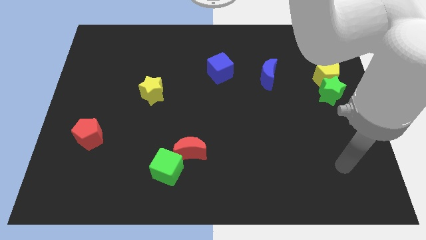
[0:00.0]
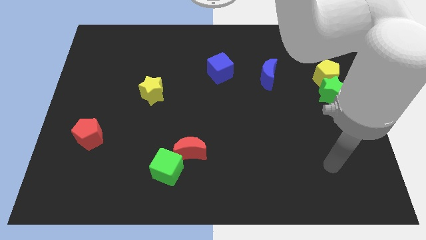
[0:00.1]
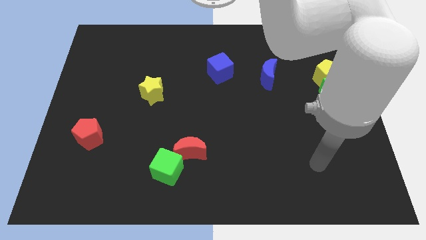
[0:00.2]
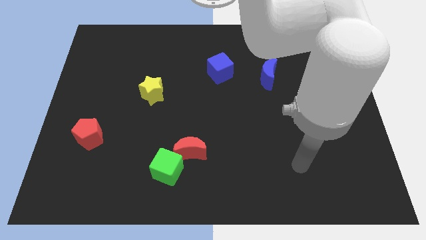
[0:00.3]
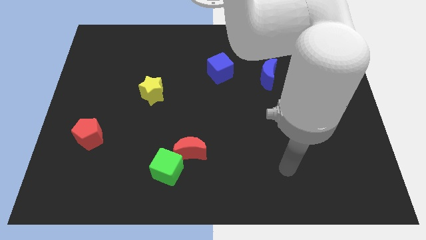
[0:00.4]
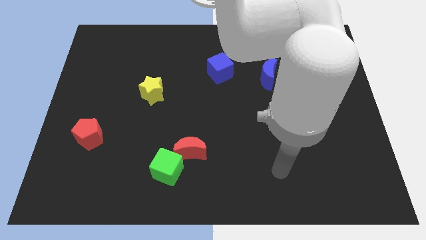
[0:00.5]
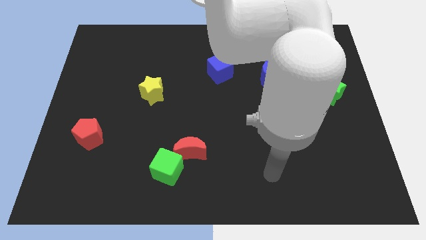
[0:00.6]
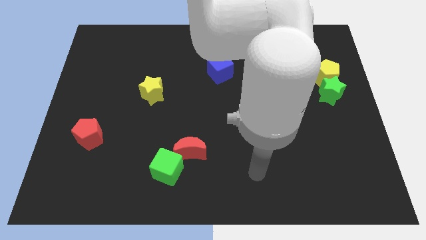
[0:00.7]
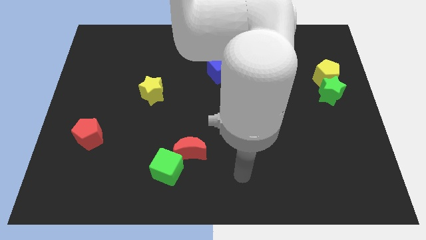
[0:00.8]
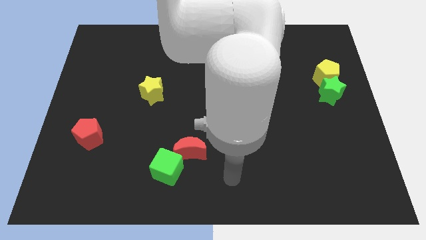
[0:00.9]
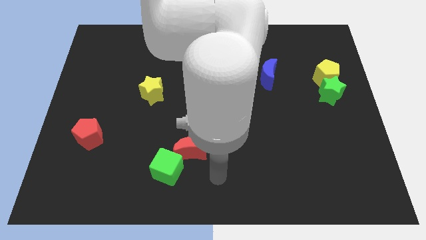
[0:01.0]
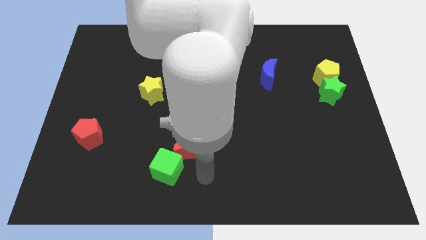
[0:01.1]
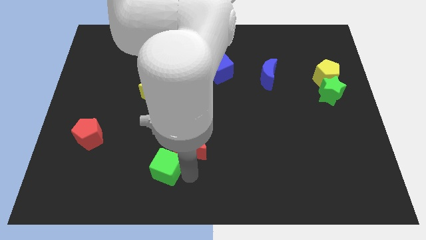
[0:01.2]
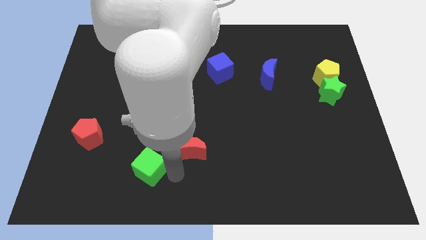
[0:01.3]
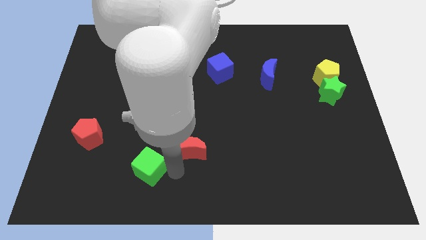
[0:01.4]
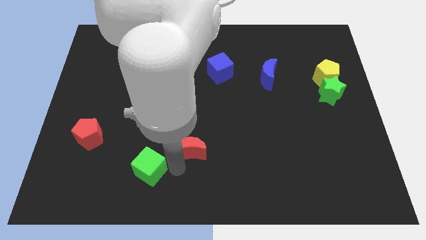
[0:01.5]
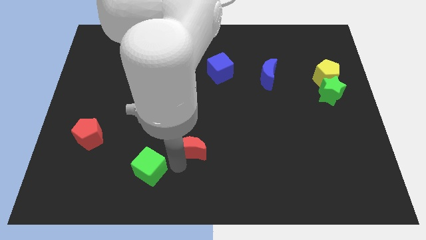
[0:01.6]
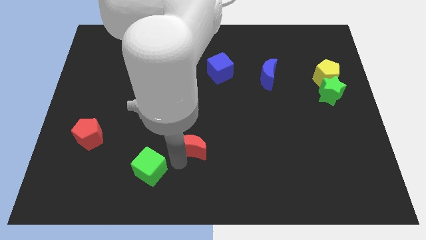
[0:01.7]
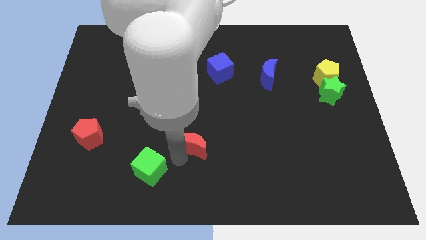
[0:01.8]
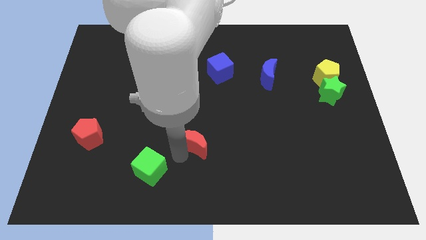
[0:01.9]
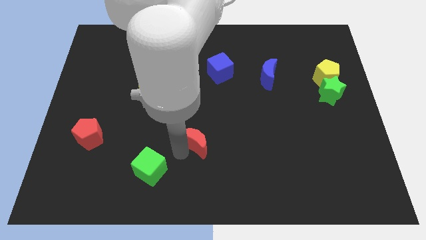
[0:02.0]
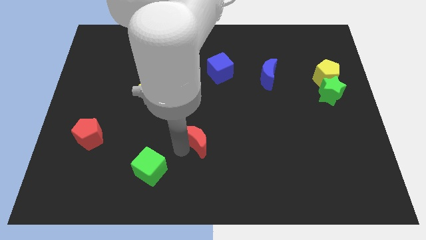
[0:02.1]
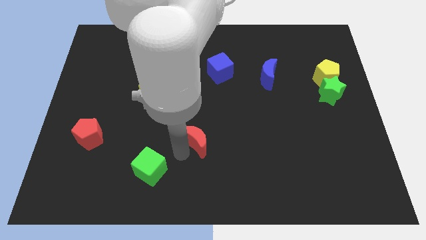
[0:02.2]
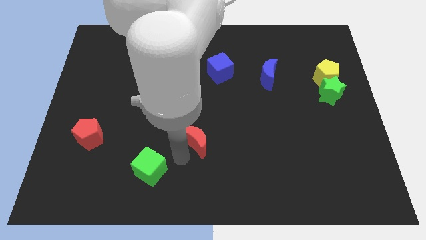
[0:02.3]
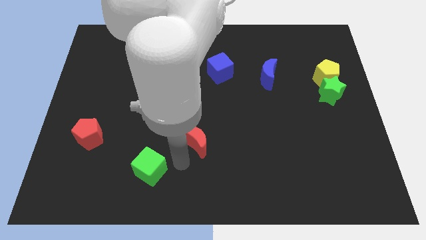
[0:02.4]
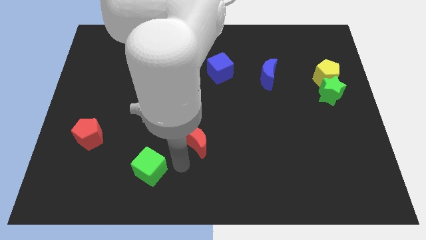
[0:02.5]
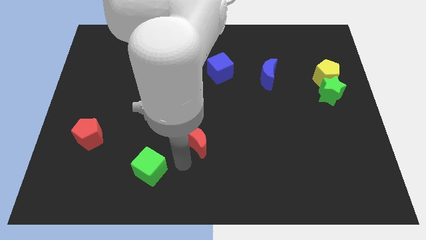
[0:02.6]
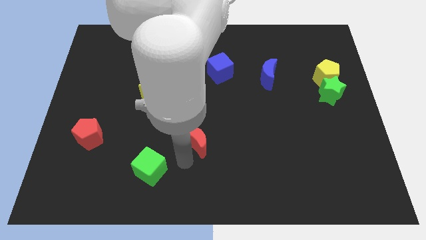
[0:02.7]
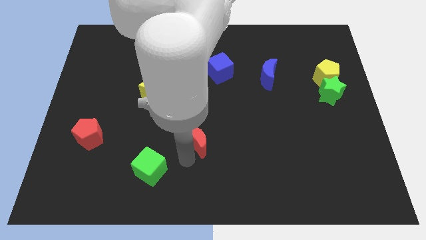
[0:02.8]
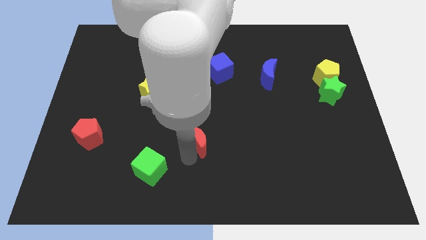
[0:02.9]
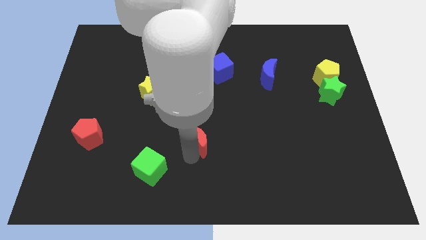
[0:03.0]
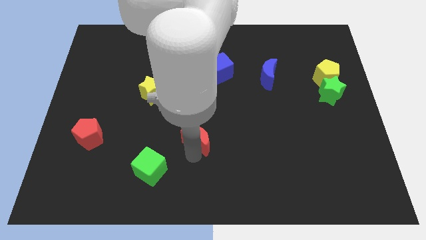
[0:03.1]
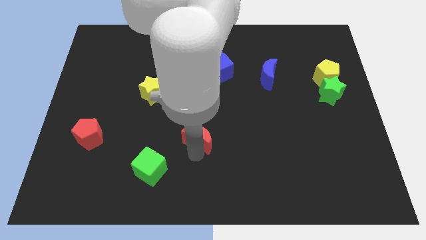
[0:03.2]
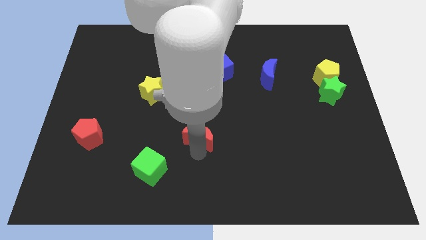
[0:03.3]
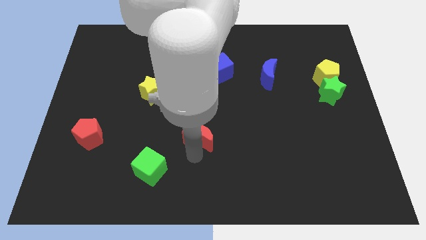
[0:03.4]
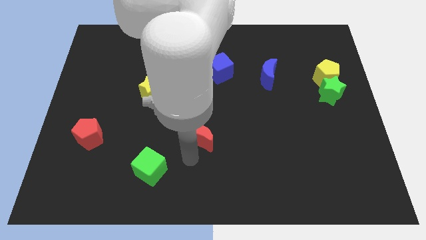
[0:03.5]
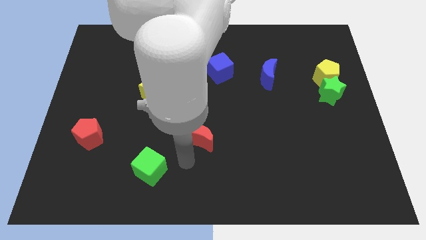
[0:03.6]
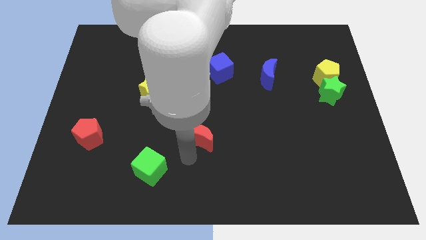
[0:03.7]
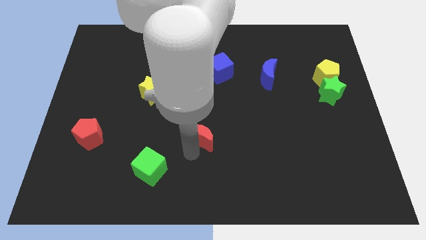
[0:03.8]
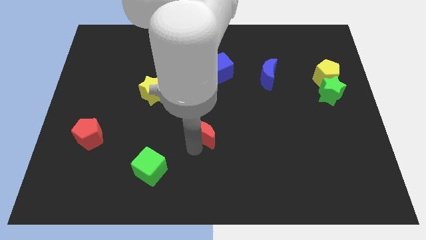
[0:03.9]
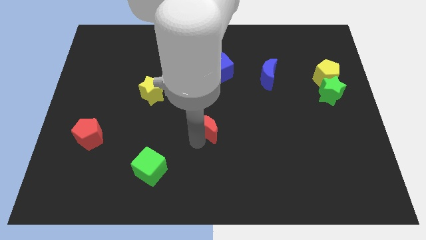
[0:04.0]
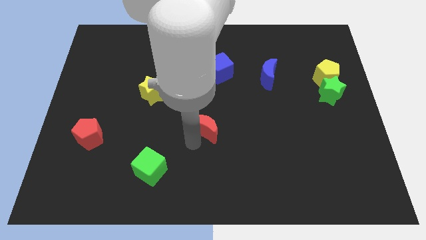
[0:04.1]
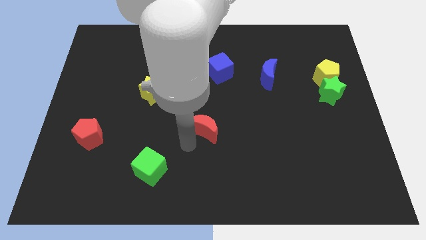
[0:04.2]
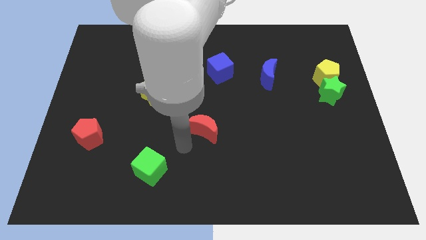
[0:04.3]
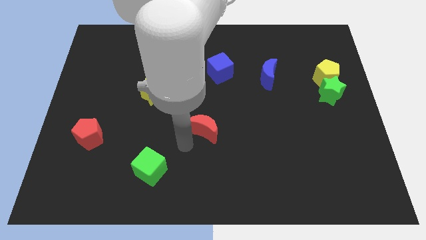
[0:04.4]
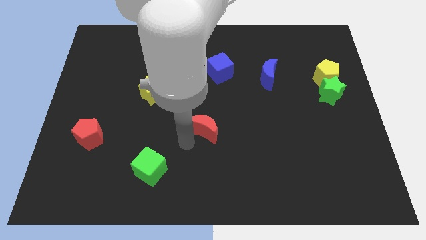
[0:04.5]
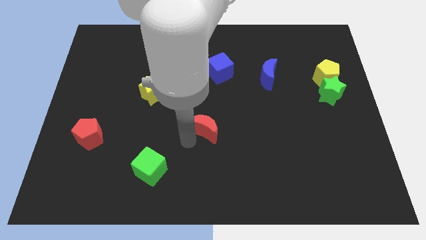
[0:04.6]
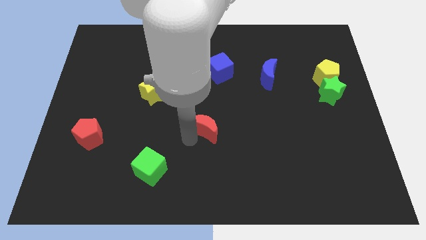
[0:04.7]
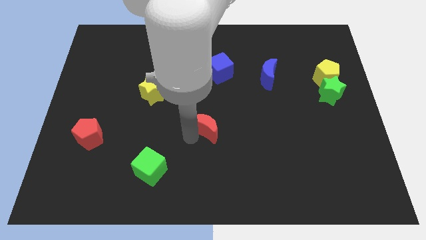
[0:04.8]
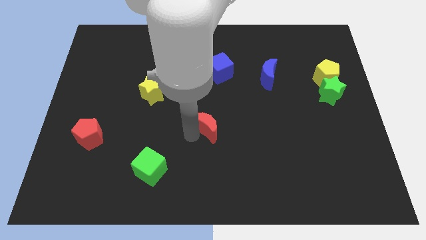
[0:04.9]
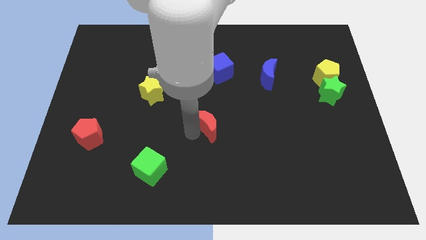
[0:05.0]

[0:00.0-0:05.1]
move the red moon up and right slightly

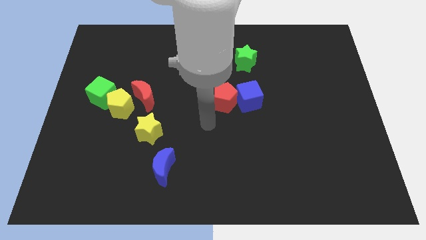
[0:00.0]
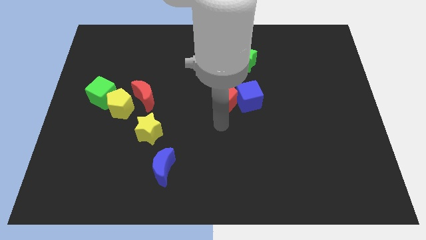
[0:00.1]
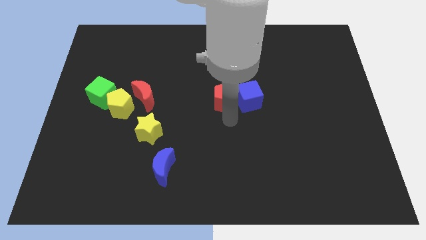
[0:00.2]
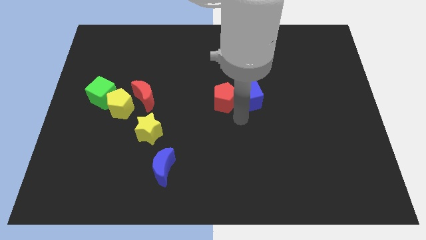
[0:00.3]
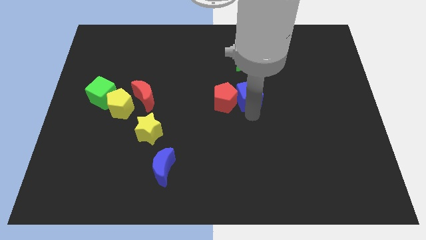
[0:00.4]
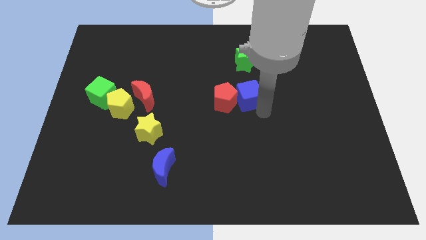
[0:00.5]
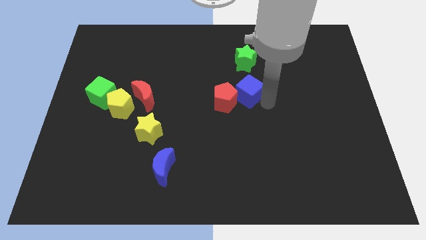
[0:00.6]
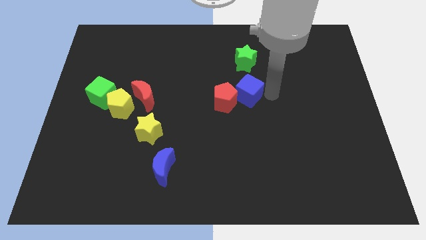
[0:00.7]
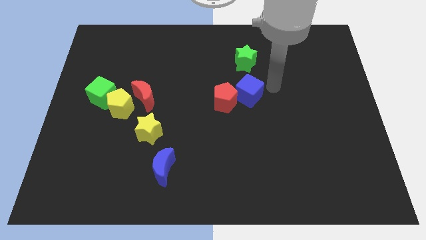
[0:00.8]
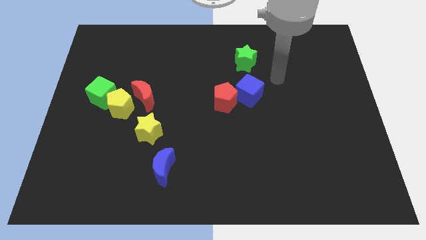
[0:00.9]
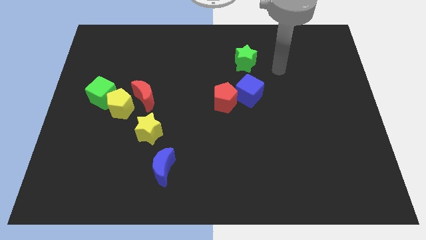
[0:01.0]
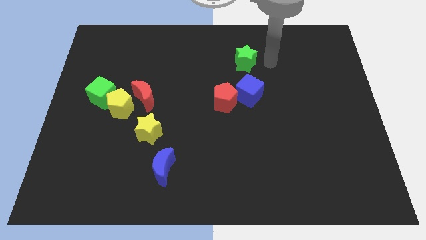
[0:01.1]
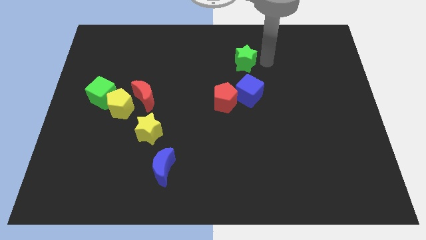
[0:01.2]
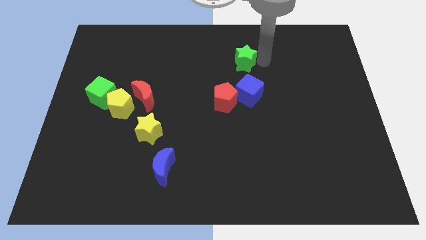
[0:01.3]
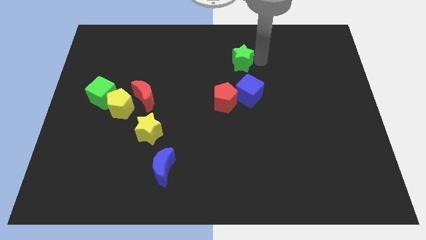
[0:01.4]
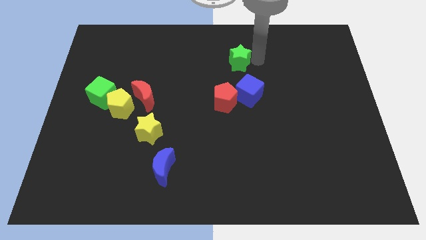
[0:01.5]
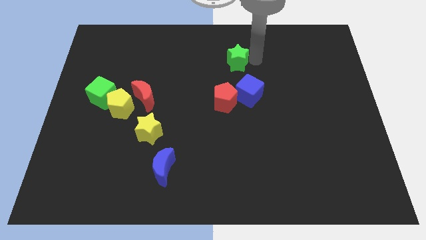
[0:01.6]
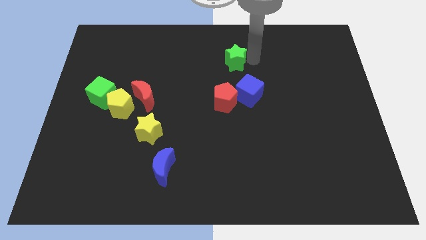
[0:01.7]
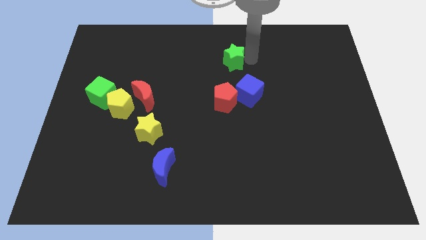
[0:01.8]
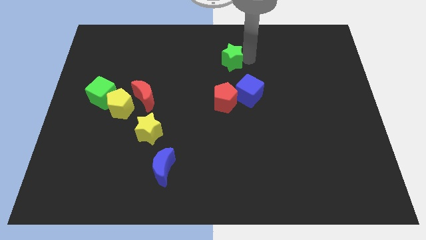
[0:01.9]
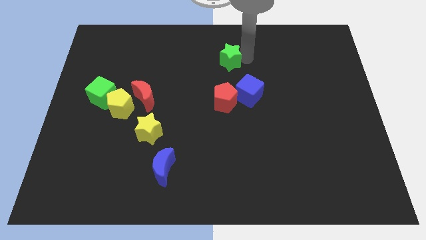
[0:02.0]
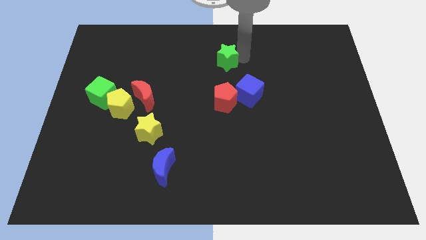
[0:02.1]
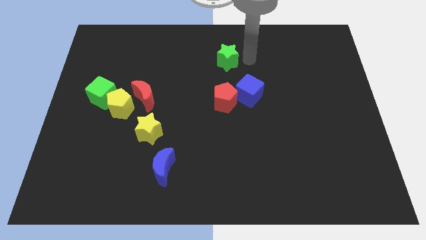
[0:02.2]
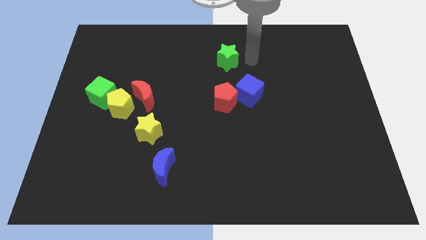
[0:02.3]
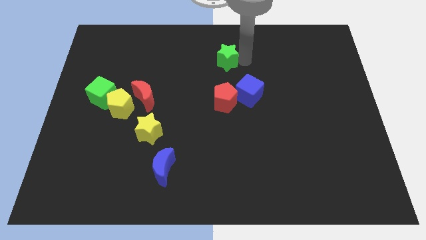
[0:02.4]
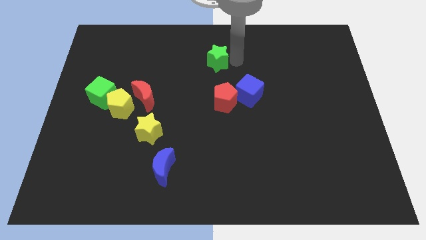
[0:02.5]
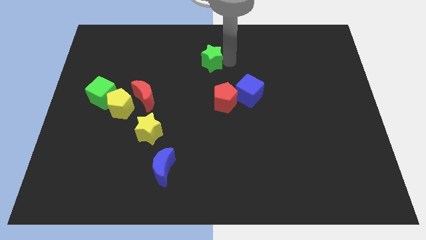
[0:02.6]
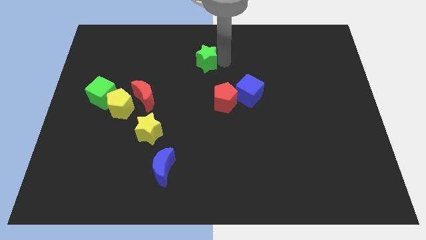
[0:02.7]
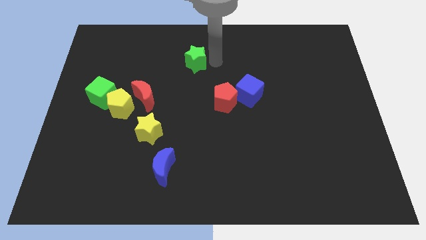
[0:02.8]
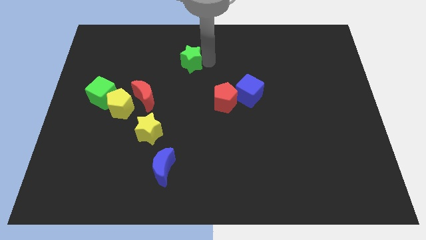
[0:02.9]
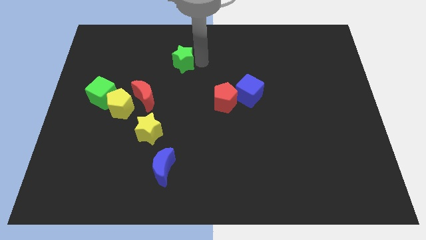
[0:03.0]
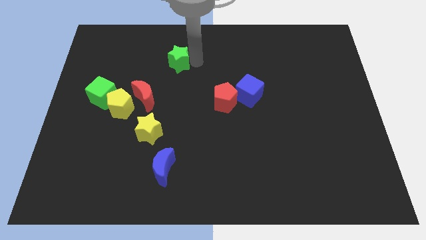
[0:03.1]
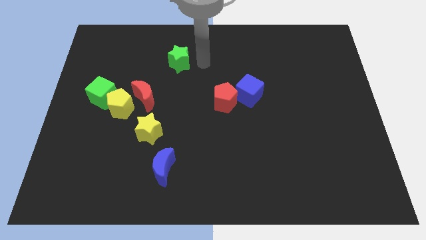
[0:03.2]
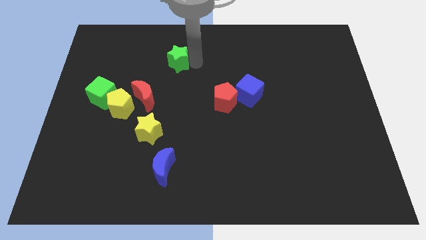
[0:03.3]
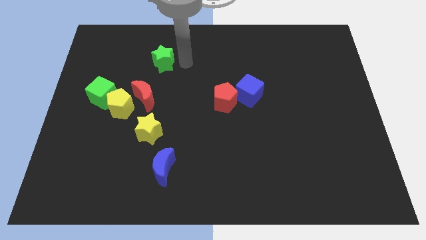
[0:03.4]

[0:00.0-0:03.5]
move the green star to the left
